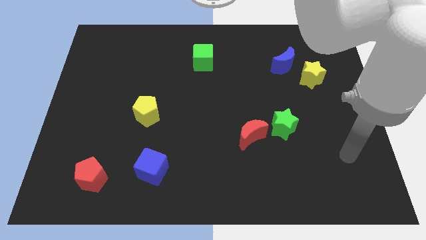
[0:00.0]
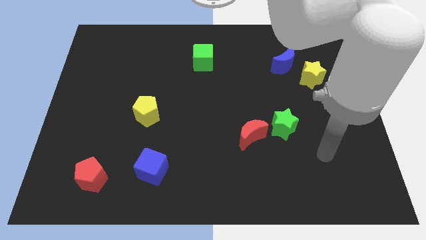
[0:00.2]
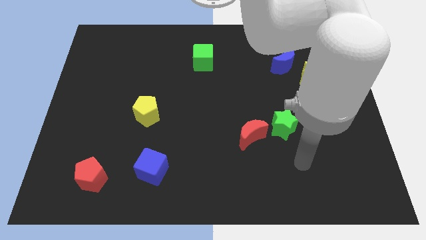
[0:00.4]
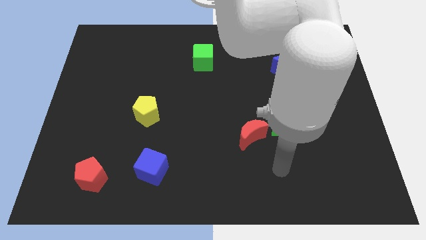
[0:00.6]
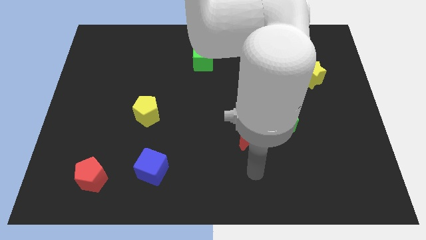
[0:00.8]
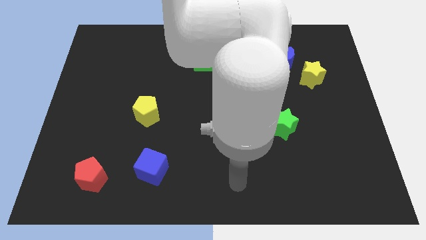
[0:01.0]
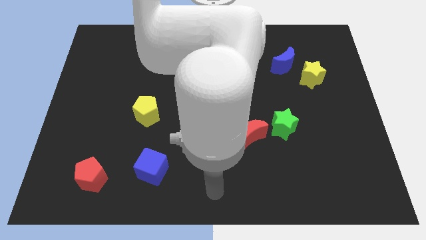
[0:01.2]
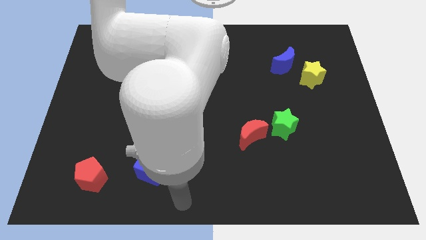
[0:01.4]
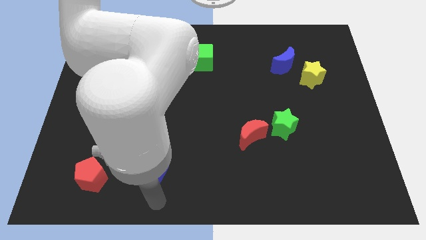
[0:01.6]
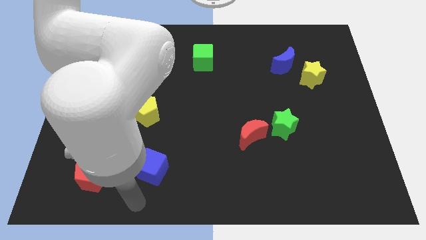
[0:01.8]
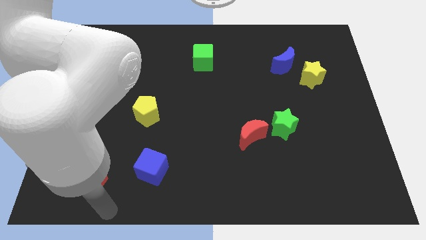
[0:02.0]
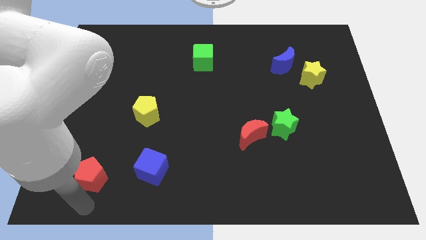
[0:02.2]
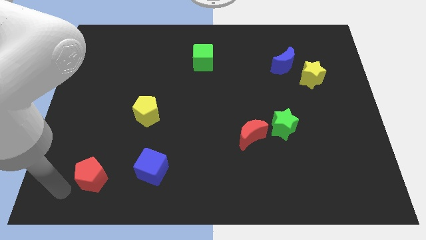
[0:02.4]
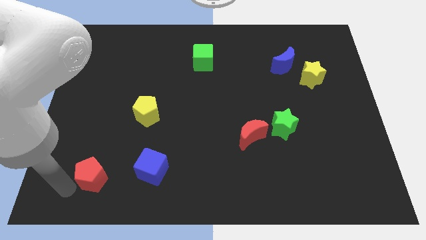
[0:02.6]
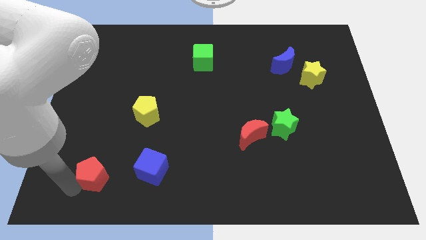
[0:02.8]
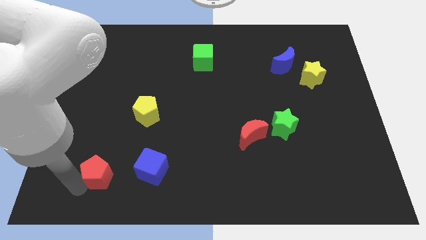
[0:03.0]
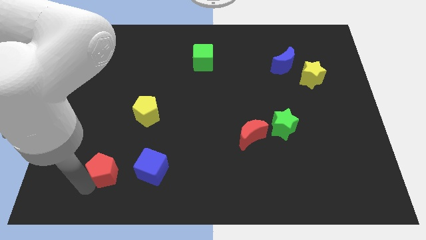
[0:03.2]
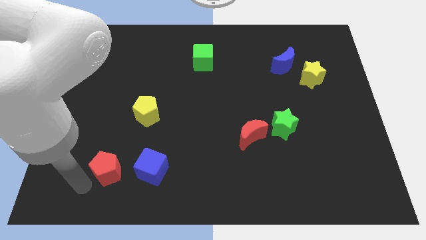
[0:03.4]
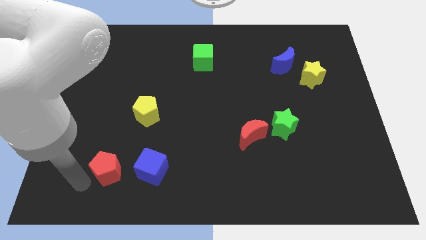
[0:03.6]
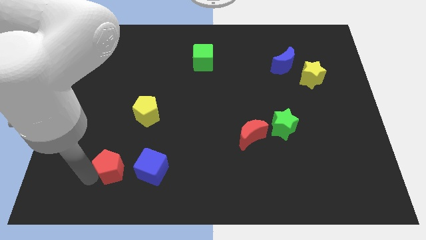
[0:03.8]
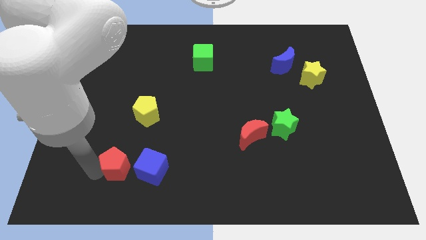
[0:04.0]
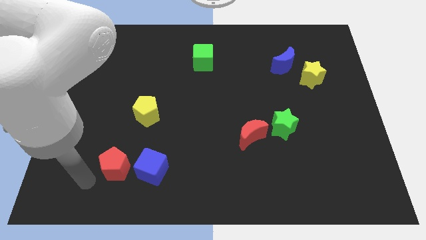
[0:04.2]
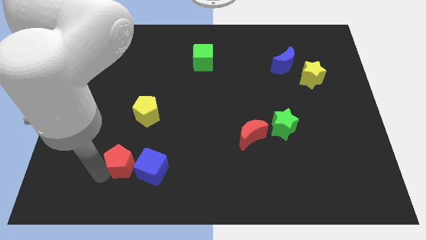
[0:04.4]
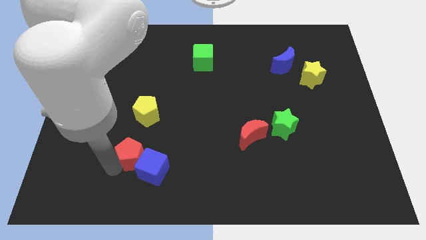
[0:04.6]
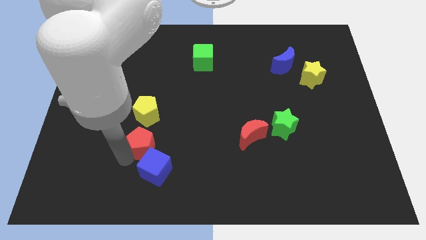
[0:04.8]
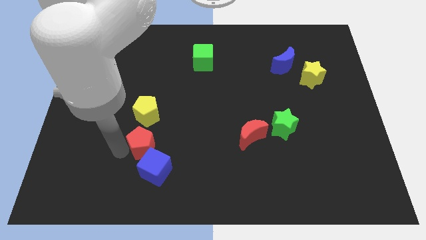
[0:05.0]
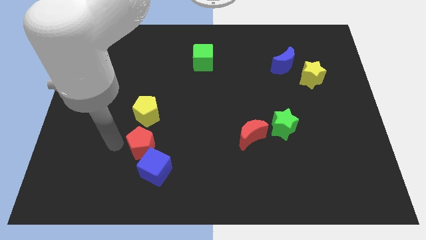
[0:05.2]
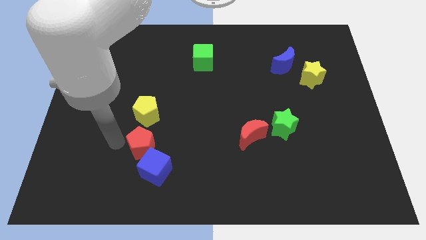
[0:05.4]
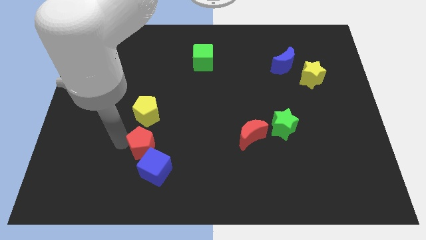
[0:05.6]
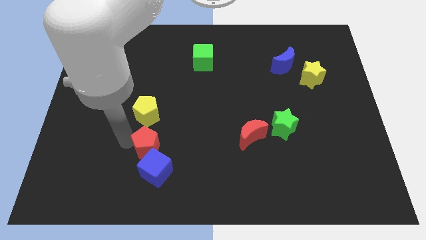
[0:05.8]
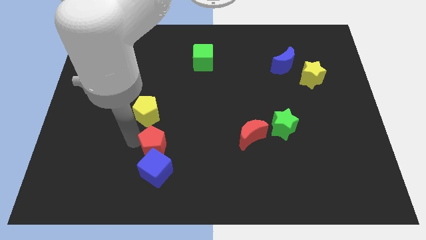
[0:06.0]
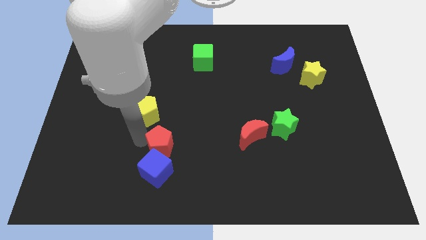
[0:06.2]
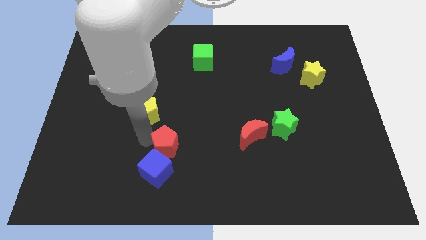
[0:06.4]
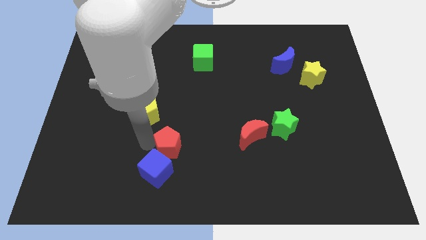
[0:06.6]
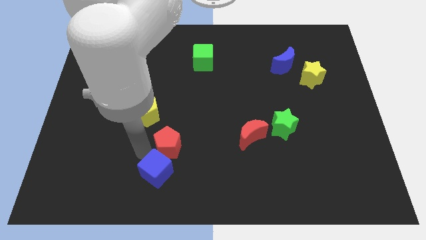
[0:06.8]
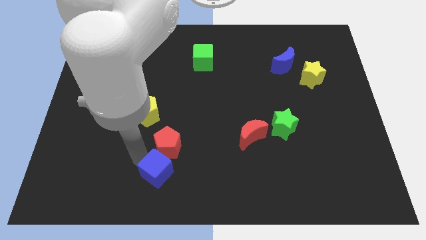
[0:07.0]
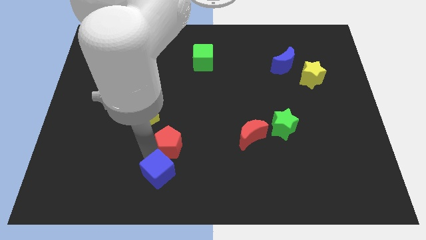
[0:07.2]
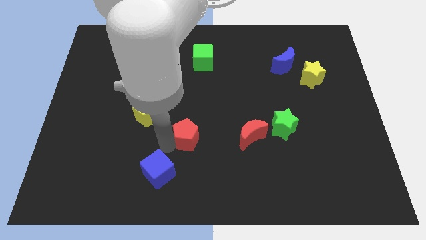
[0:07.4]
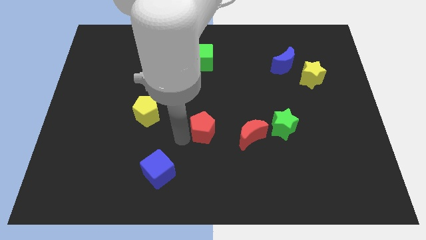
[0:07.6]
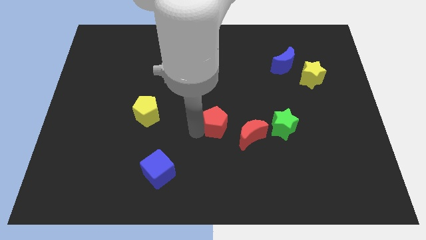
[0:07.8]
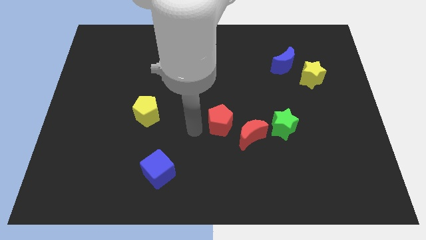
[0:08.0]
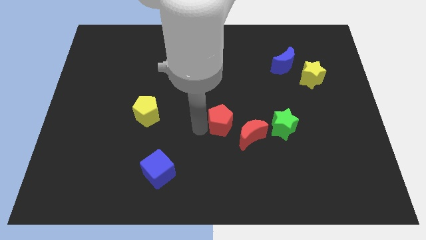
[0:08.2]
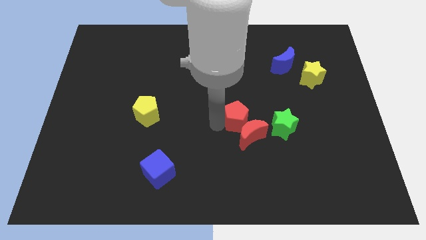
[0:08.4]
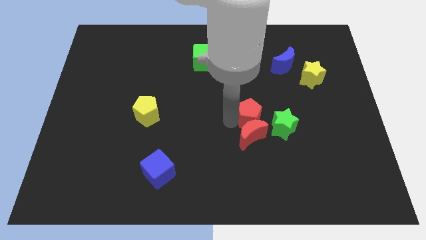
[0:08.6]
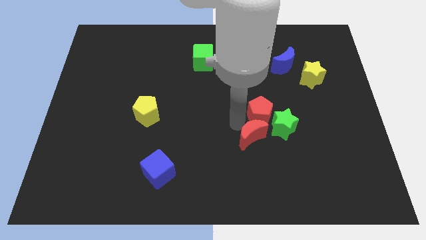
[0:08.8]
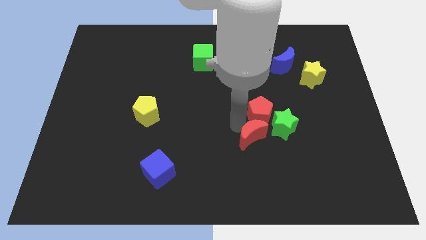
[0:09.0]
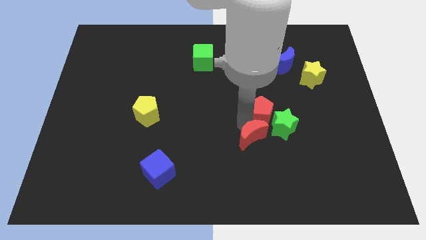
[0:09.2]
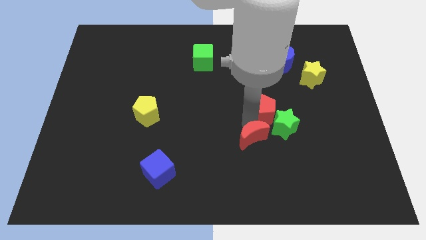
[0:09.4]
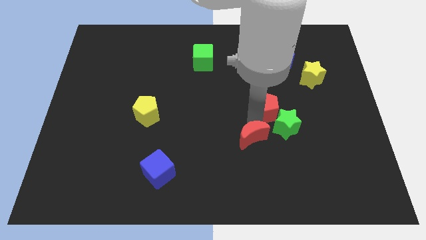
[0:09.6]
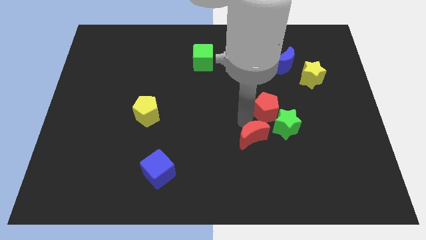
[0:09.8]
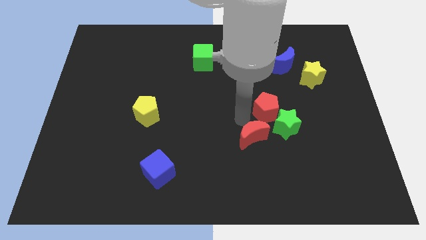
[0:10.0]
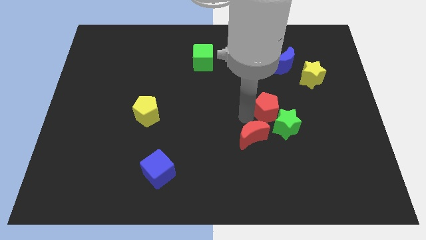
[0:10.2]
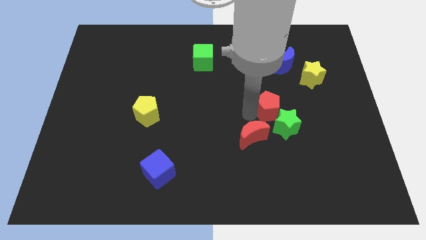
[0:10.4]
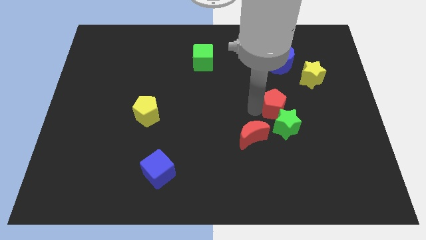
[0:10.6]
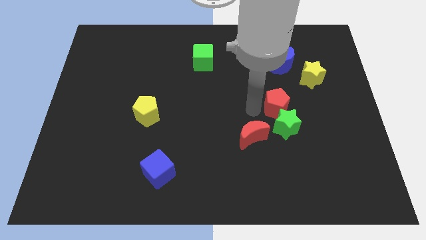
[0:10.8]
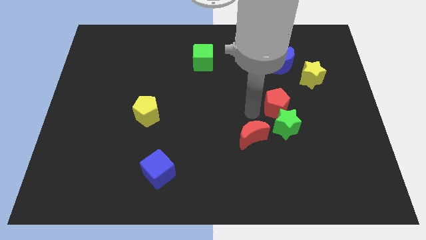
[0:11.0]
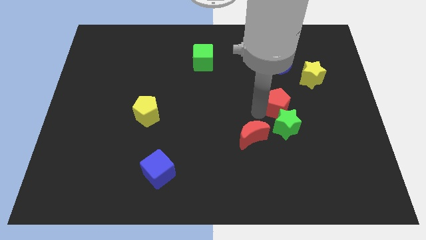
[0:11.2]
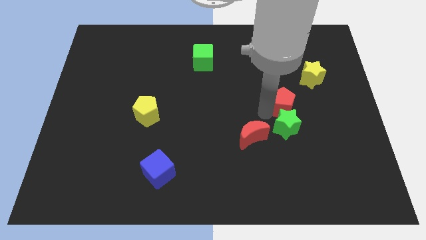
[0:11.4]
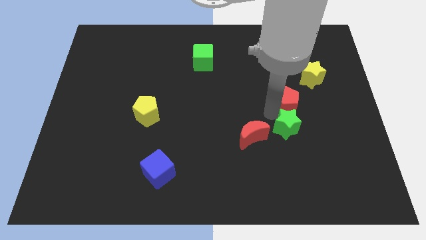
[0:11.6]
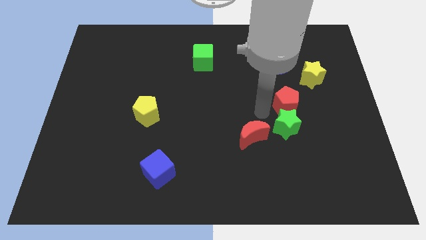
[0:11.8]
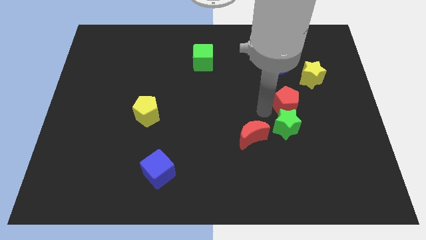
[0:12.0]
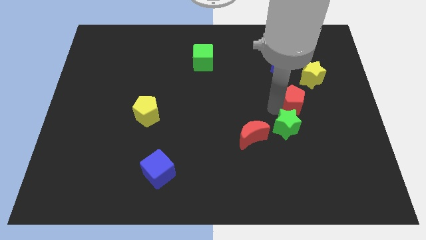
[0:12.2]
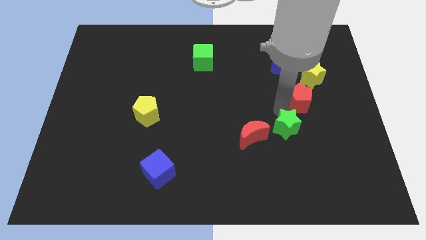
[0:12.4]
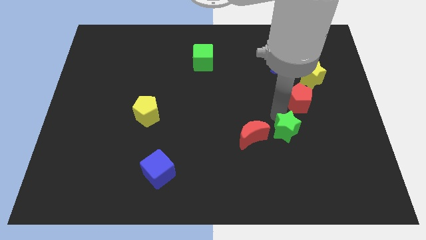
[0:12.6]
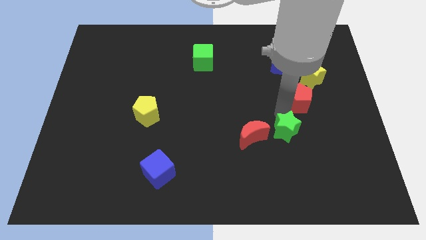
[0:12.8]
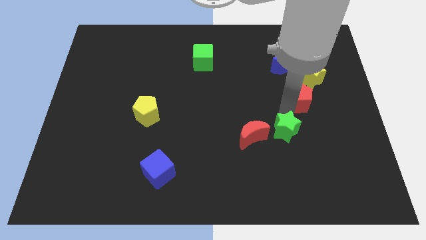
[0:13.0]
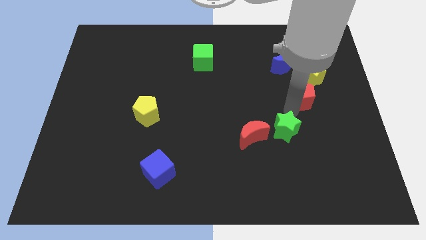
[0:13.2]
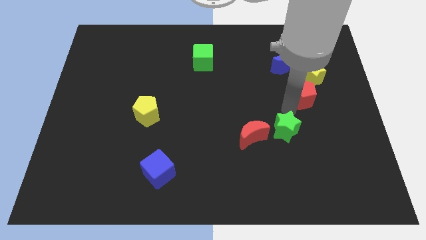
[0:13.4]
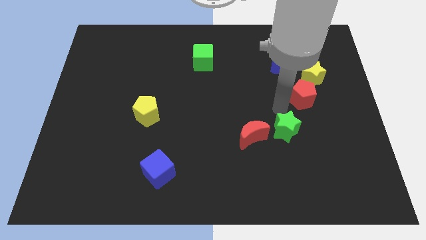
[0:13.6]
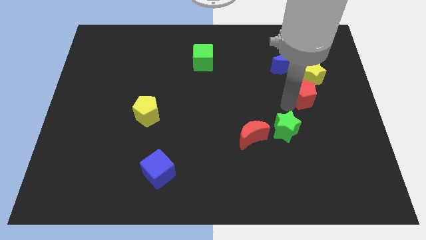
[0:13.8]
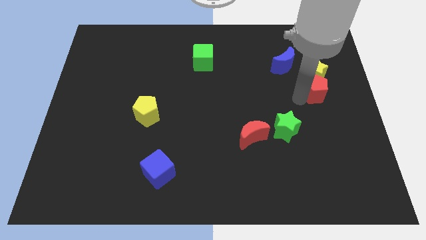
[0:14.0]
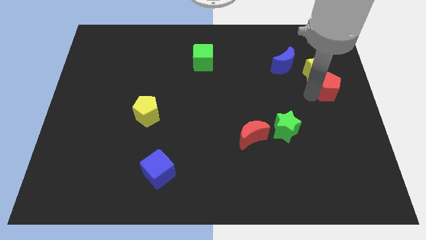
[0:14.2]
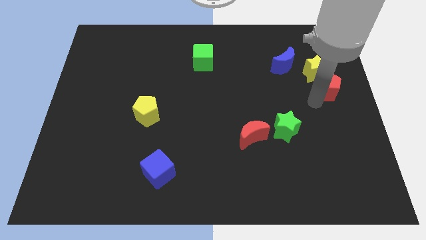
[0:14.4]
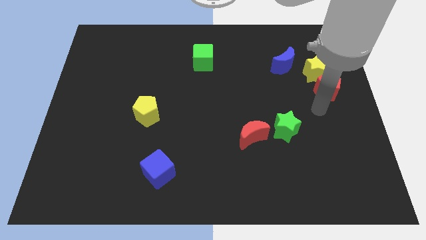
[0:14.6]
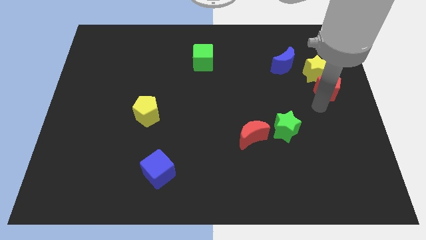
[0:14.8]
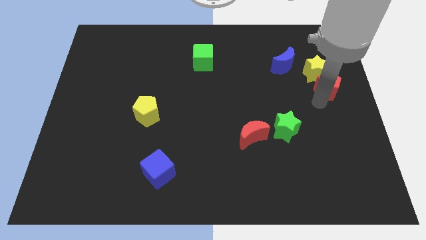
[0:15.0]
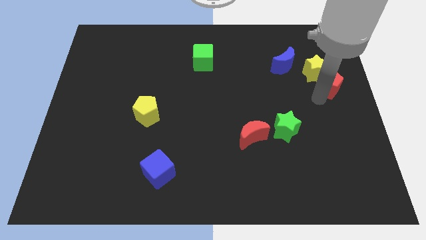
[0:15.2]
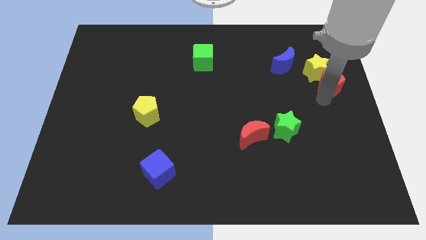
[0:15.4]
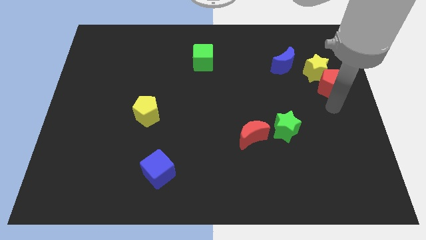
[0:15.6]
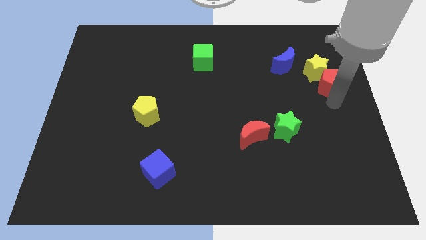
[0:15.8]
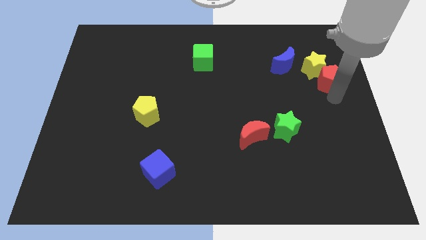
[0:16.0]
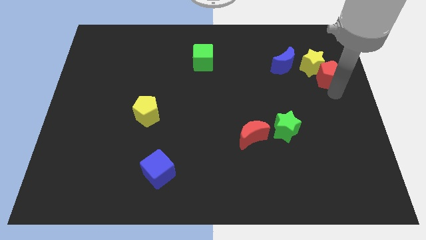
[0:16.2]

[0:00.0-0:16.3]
slide the red pentagon right of the blue moon
